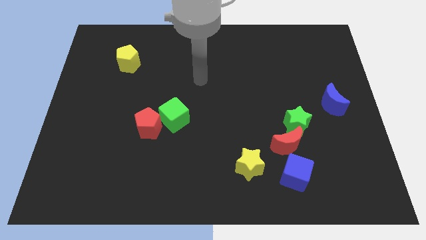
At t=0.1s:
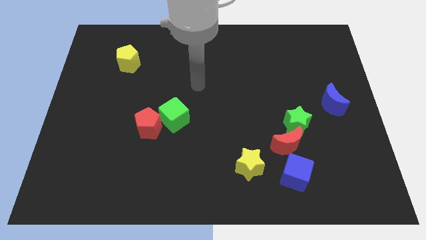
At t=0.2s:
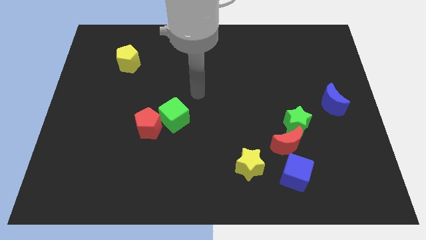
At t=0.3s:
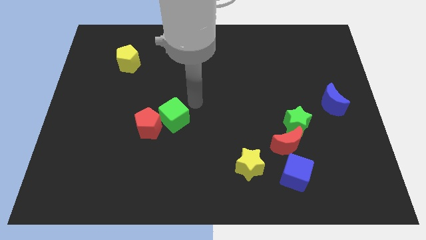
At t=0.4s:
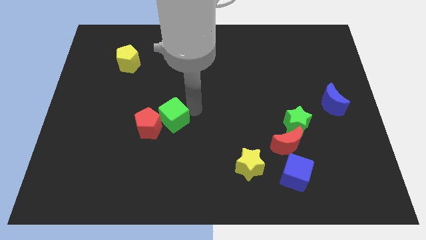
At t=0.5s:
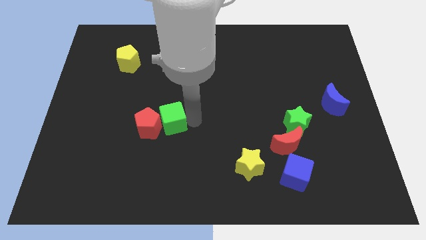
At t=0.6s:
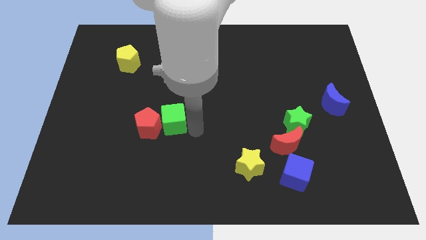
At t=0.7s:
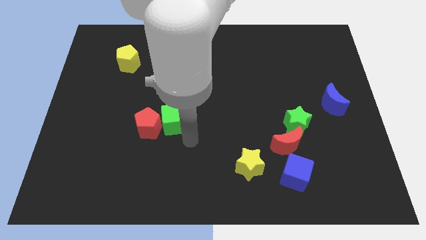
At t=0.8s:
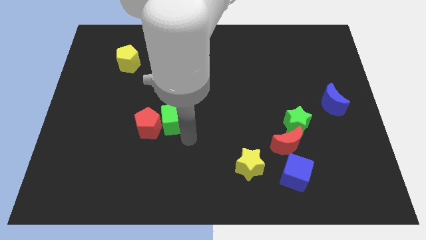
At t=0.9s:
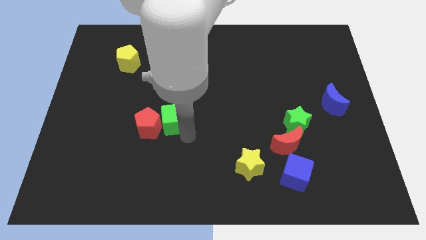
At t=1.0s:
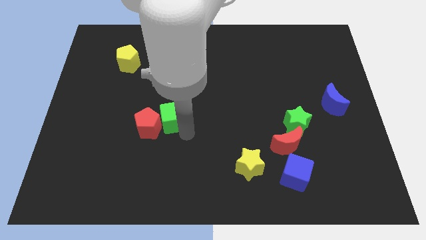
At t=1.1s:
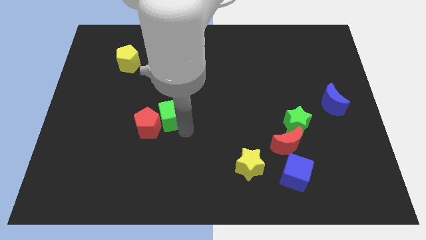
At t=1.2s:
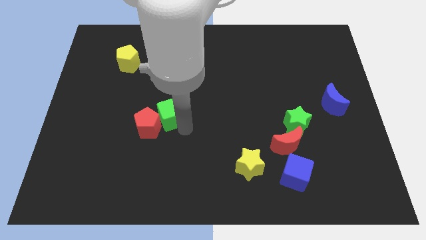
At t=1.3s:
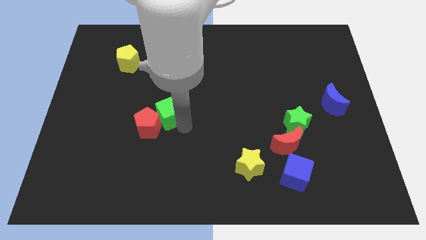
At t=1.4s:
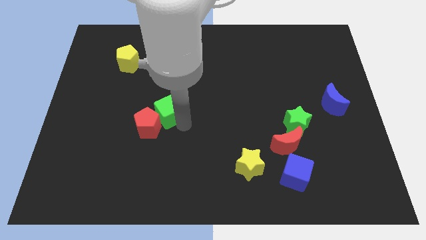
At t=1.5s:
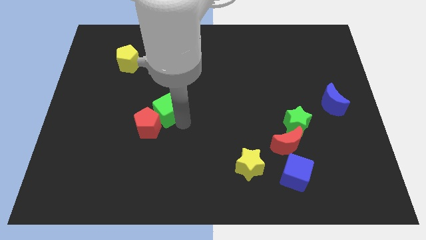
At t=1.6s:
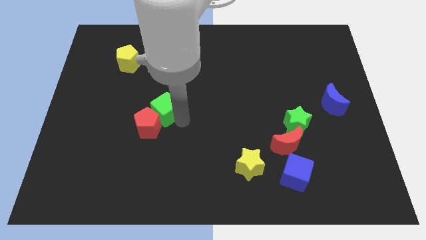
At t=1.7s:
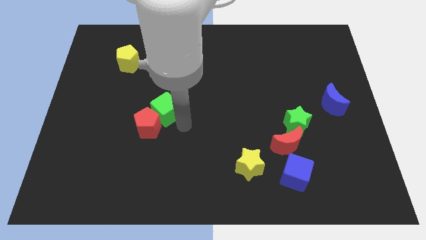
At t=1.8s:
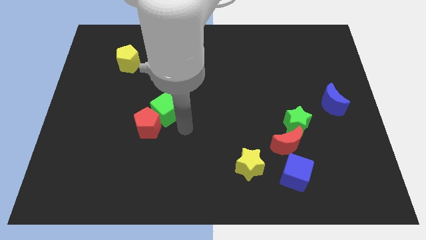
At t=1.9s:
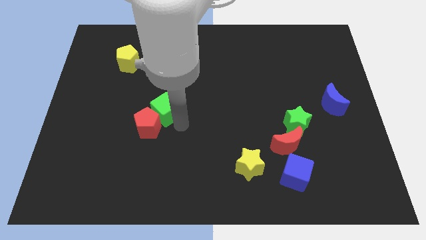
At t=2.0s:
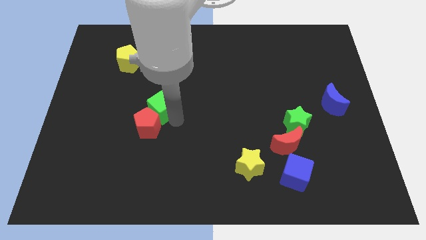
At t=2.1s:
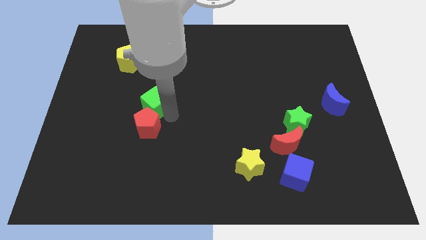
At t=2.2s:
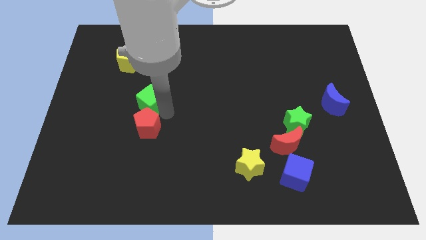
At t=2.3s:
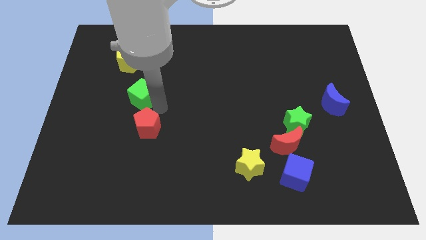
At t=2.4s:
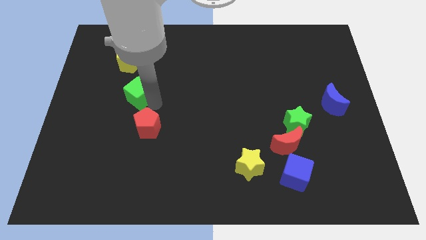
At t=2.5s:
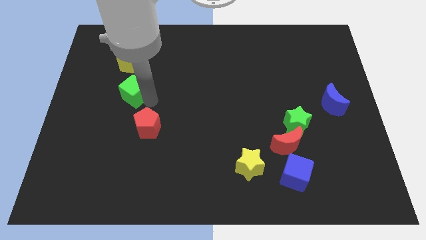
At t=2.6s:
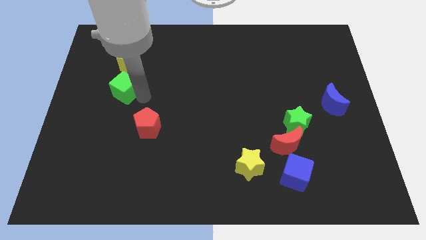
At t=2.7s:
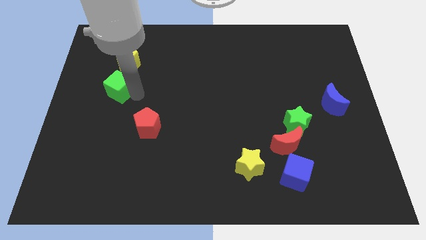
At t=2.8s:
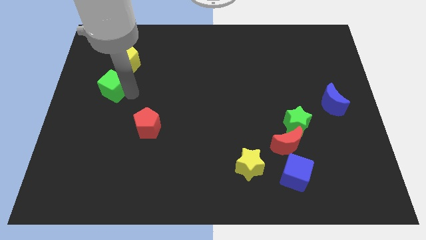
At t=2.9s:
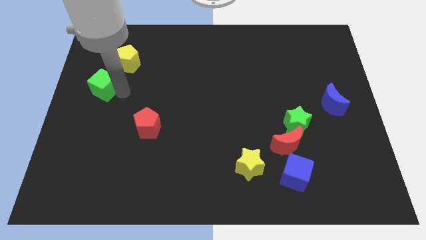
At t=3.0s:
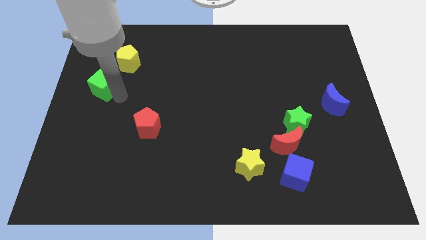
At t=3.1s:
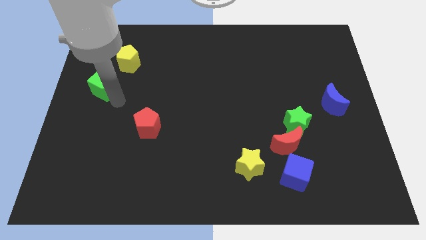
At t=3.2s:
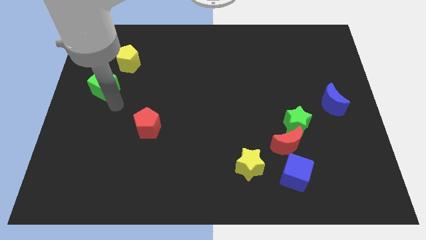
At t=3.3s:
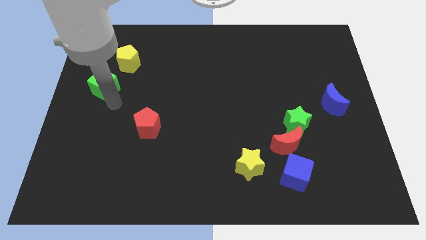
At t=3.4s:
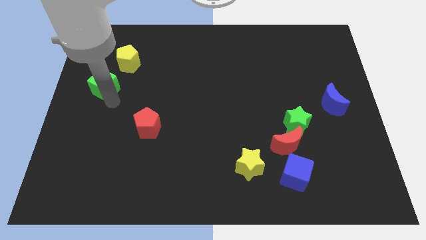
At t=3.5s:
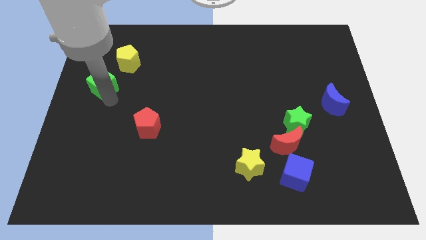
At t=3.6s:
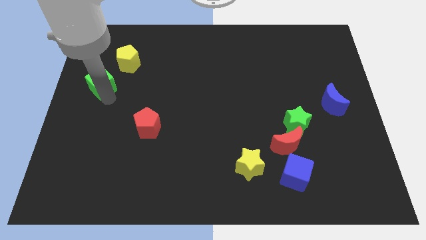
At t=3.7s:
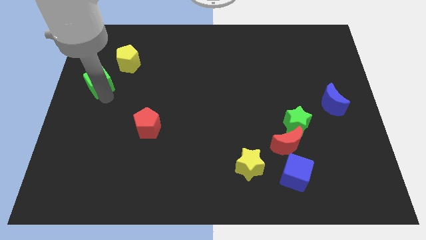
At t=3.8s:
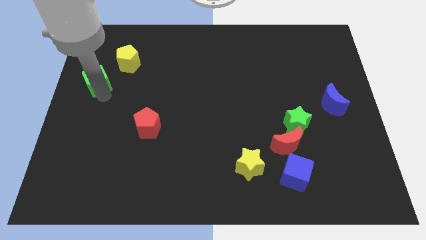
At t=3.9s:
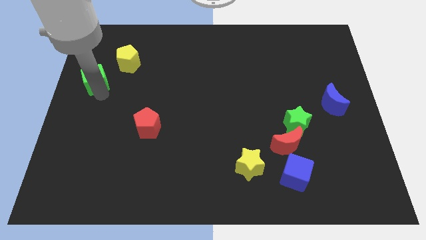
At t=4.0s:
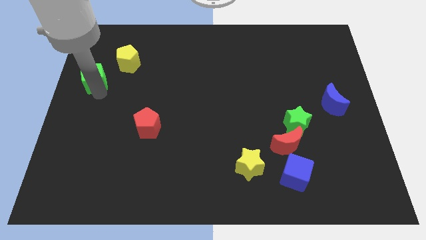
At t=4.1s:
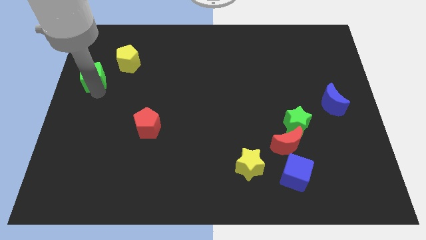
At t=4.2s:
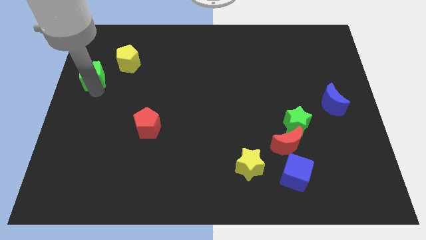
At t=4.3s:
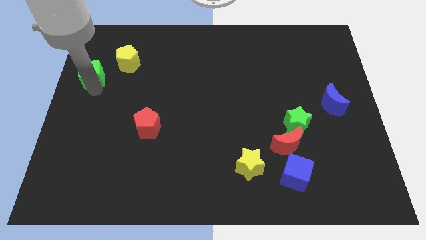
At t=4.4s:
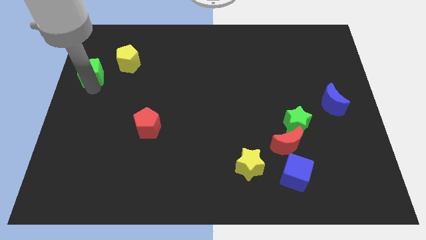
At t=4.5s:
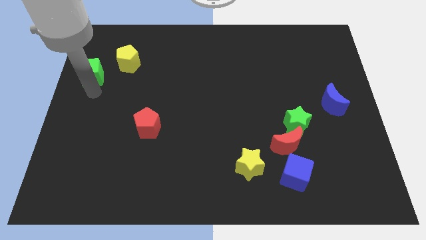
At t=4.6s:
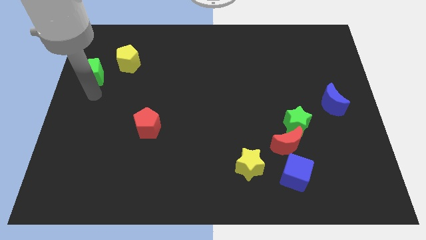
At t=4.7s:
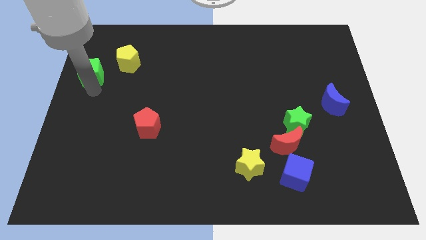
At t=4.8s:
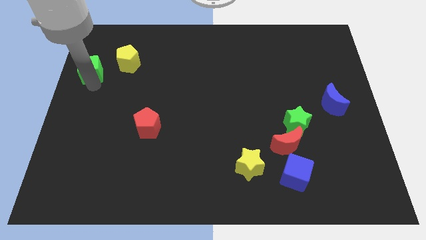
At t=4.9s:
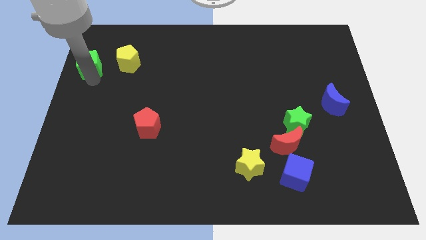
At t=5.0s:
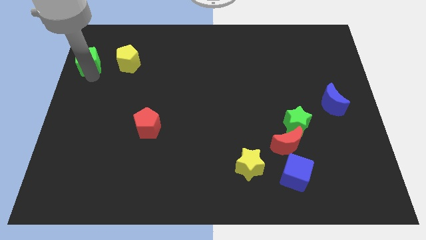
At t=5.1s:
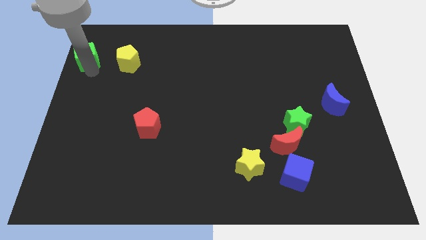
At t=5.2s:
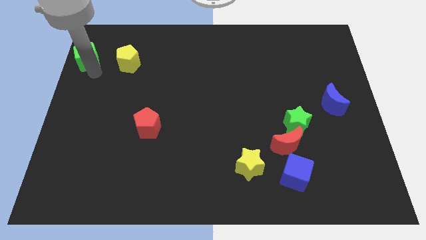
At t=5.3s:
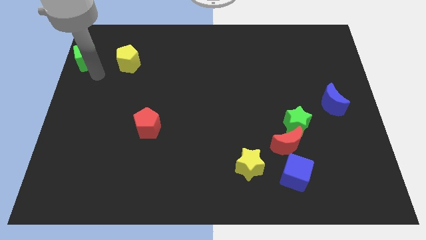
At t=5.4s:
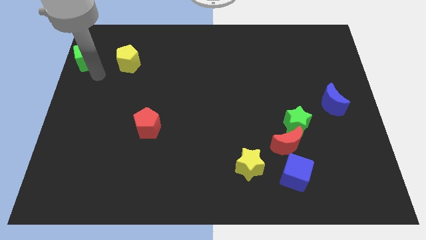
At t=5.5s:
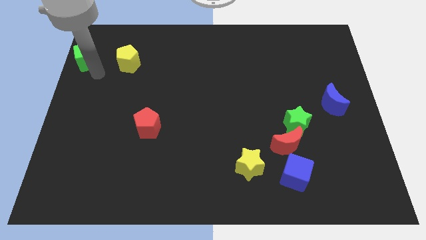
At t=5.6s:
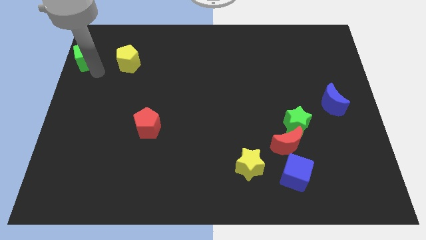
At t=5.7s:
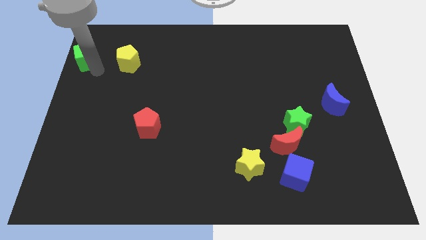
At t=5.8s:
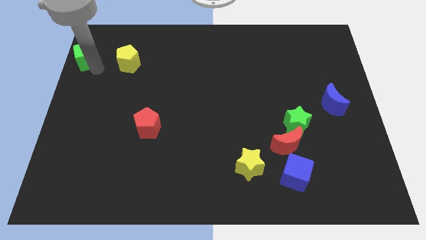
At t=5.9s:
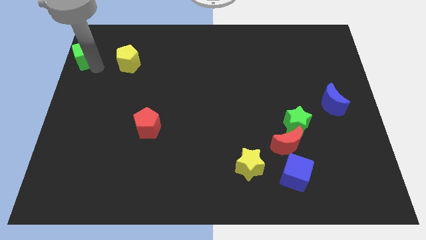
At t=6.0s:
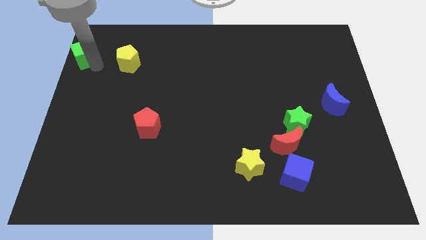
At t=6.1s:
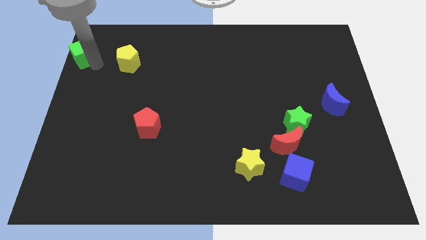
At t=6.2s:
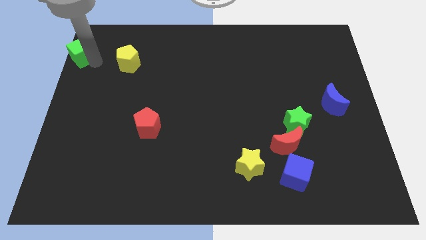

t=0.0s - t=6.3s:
put the green cube to the top left corner
